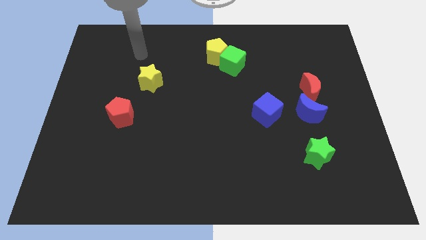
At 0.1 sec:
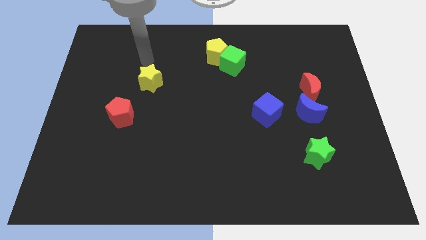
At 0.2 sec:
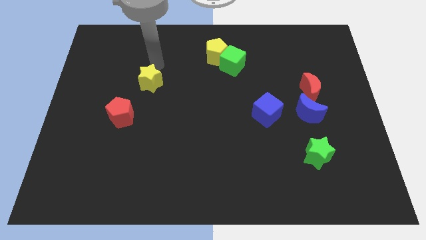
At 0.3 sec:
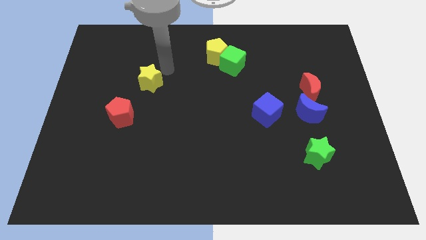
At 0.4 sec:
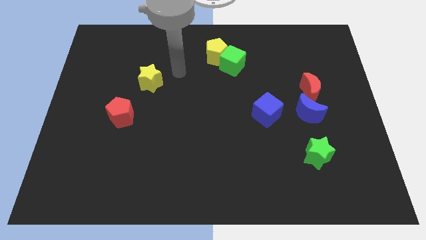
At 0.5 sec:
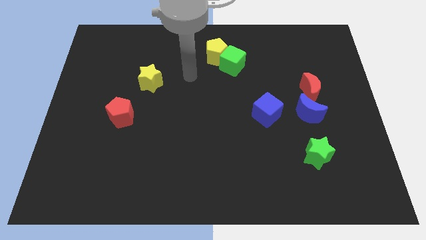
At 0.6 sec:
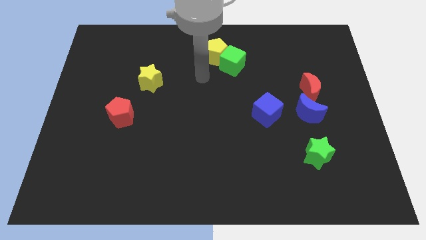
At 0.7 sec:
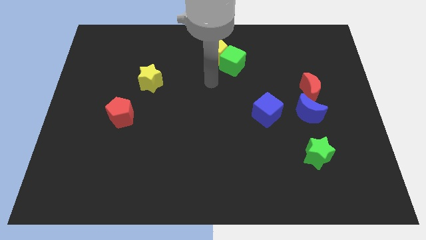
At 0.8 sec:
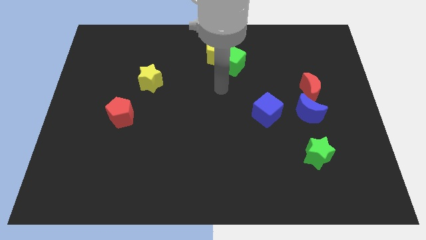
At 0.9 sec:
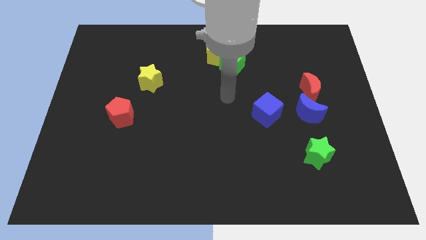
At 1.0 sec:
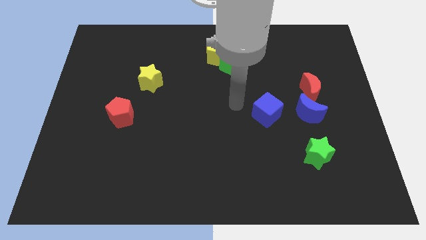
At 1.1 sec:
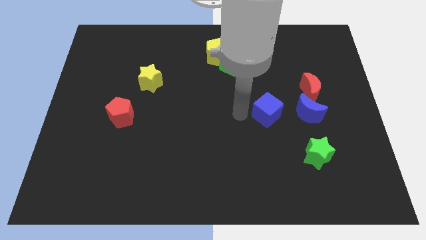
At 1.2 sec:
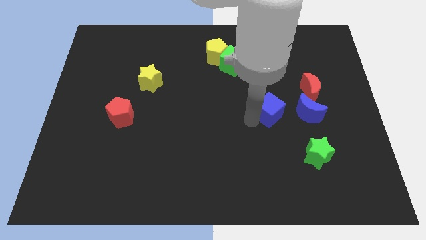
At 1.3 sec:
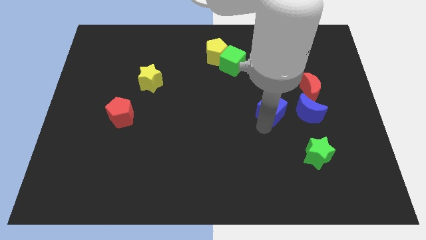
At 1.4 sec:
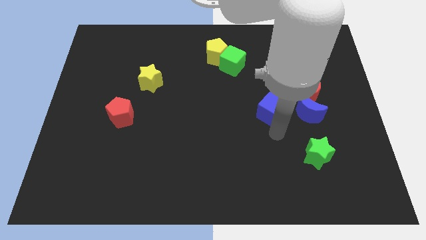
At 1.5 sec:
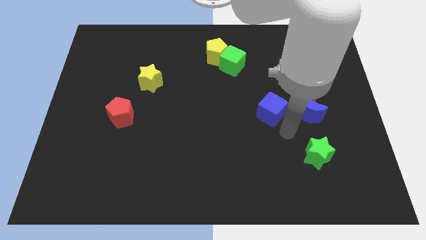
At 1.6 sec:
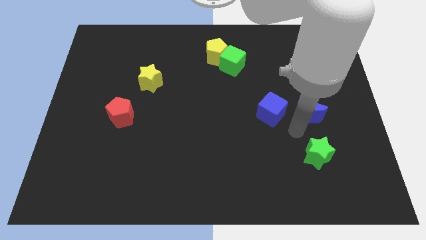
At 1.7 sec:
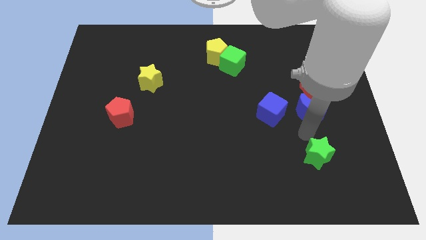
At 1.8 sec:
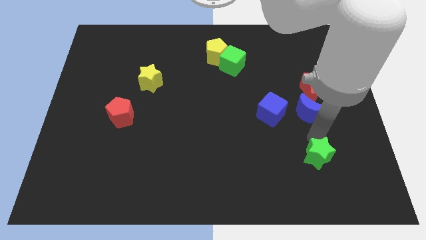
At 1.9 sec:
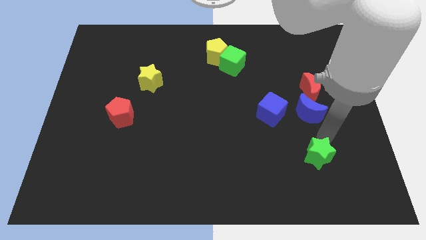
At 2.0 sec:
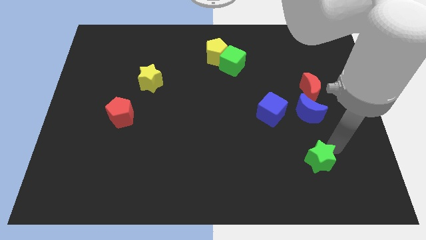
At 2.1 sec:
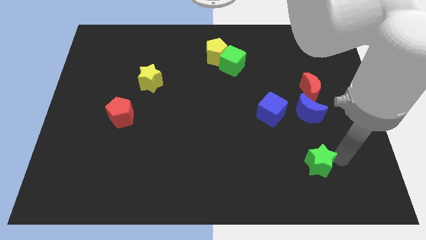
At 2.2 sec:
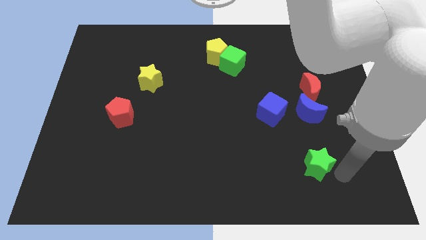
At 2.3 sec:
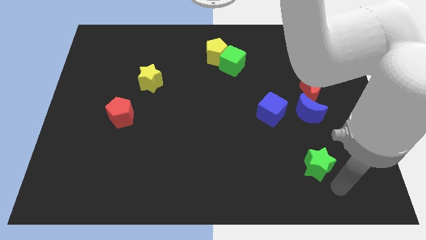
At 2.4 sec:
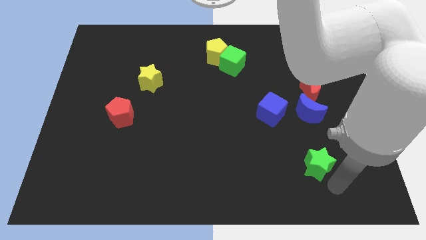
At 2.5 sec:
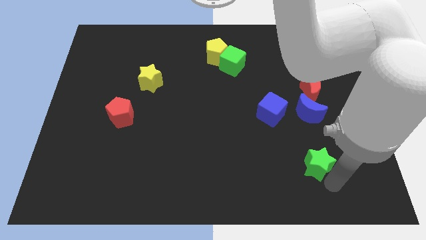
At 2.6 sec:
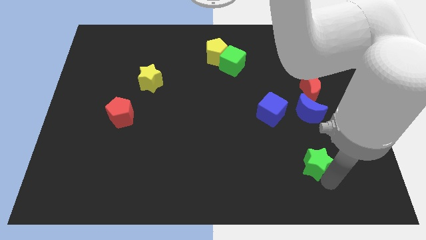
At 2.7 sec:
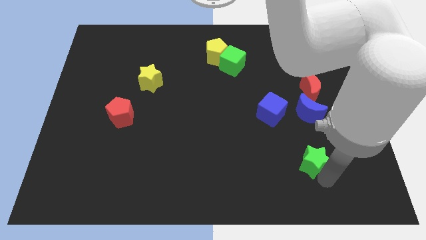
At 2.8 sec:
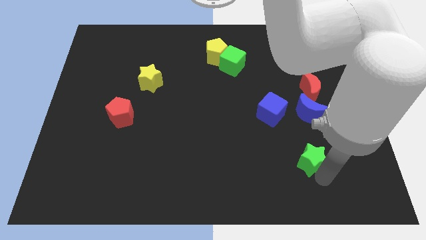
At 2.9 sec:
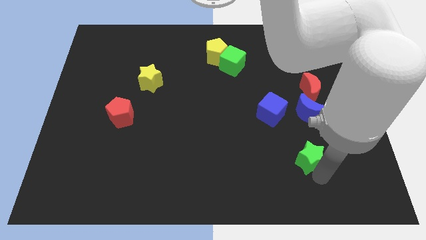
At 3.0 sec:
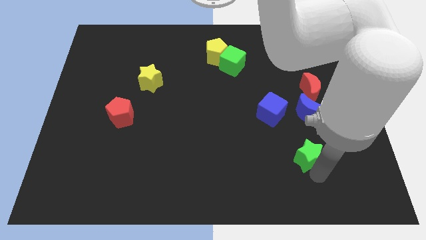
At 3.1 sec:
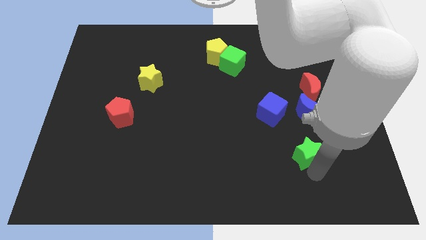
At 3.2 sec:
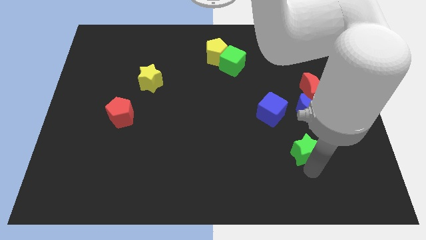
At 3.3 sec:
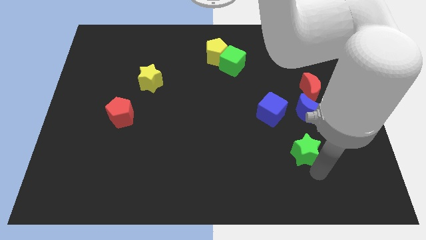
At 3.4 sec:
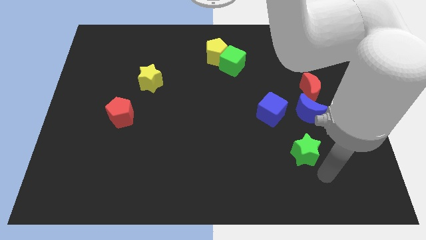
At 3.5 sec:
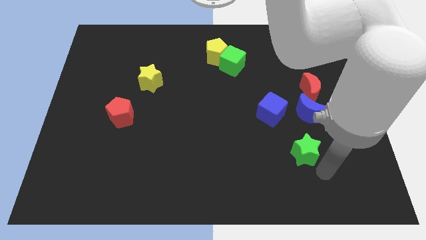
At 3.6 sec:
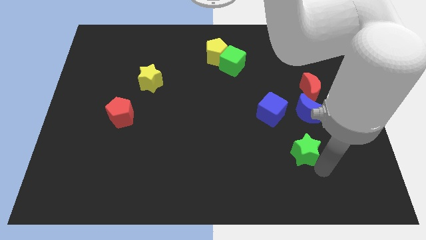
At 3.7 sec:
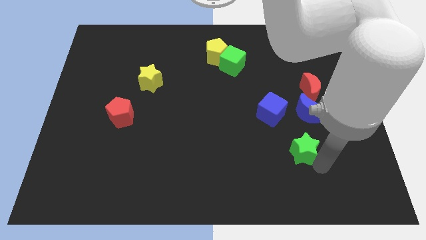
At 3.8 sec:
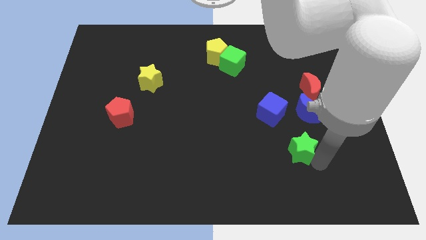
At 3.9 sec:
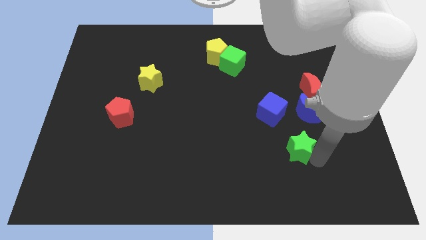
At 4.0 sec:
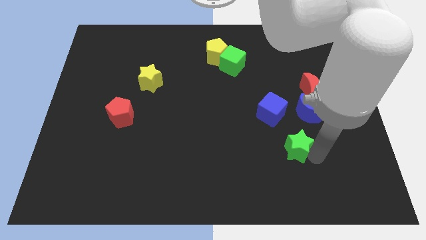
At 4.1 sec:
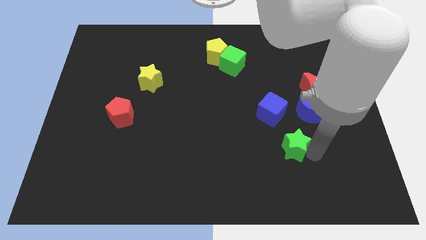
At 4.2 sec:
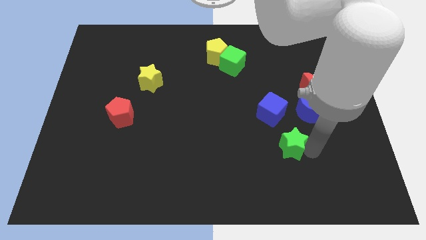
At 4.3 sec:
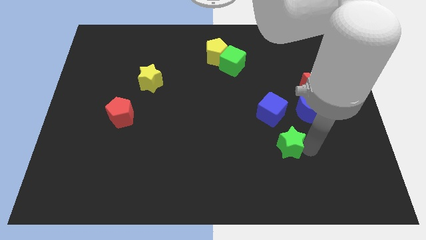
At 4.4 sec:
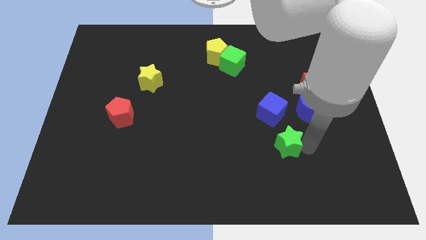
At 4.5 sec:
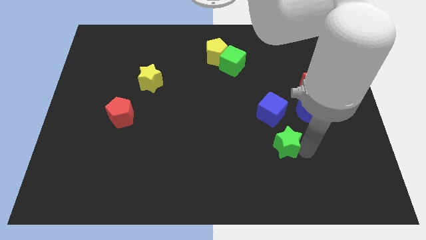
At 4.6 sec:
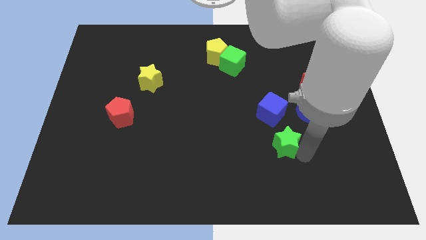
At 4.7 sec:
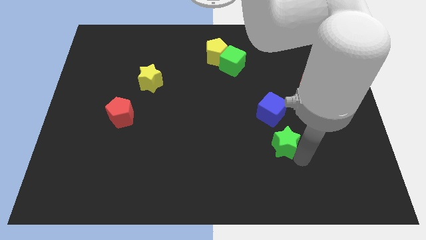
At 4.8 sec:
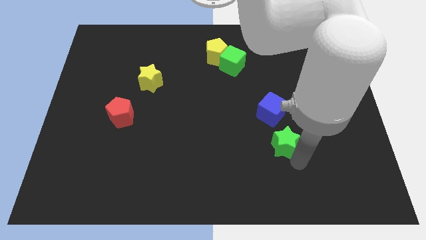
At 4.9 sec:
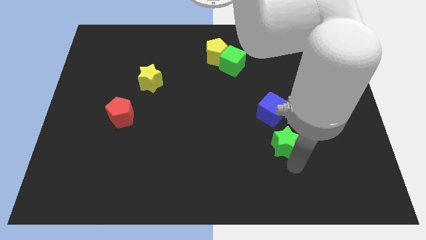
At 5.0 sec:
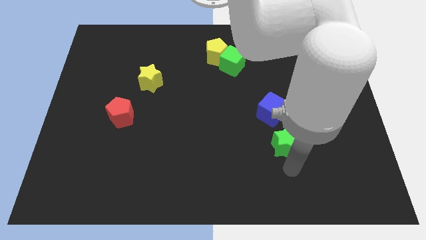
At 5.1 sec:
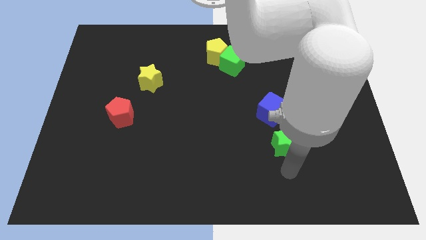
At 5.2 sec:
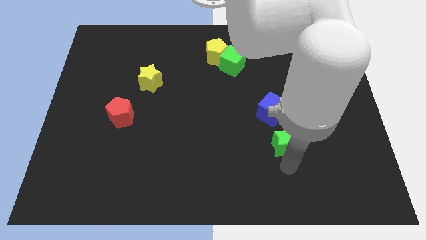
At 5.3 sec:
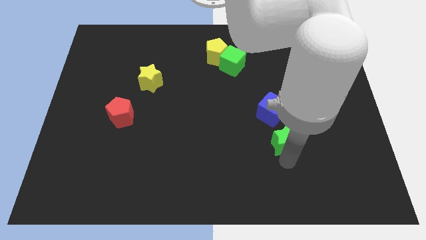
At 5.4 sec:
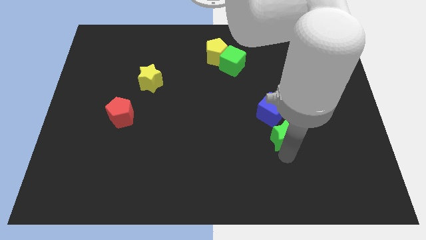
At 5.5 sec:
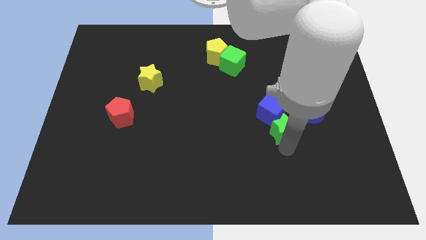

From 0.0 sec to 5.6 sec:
slide the green star next to the blue cube
